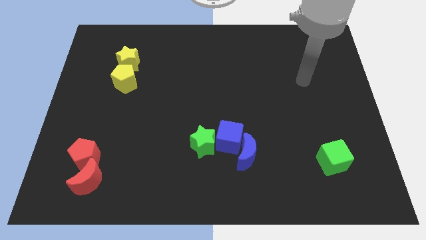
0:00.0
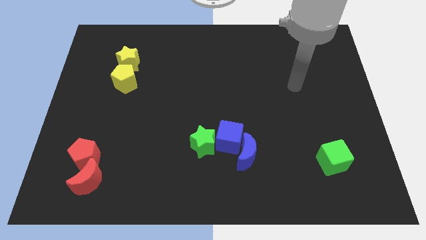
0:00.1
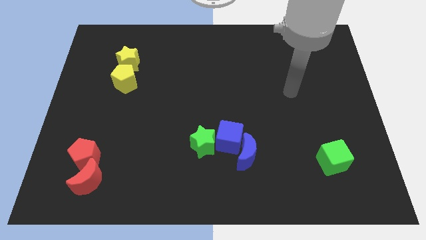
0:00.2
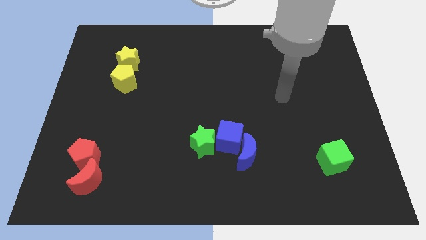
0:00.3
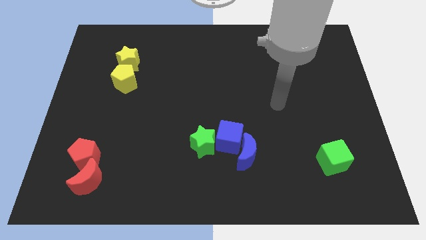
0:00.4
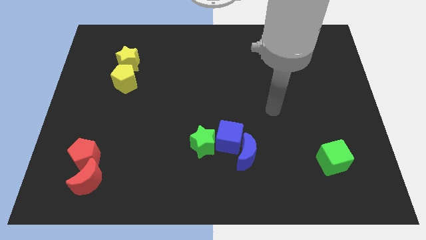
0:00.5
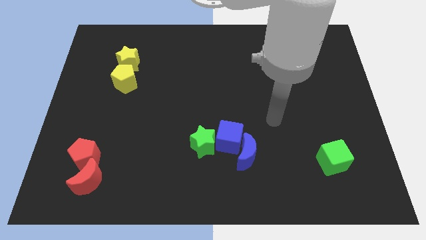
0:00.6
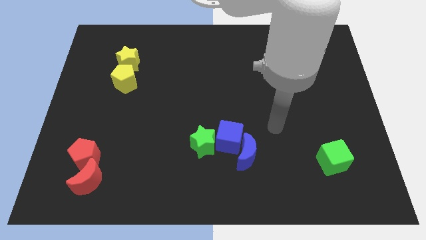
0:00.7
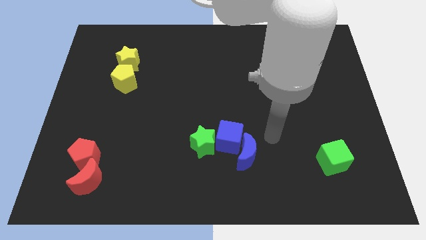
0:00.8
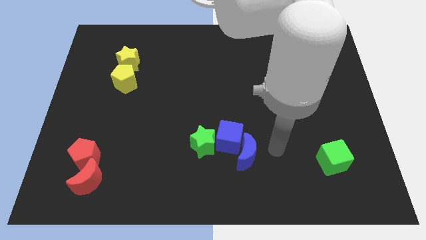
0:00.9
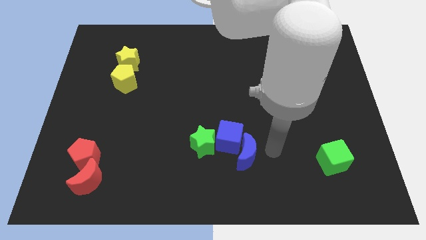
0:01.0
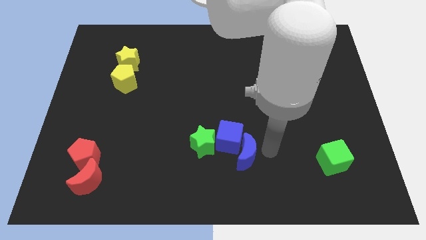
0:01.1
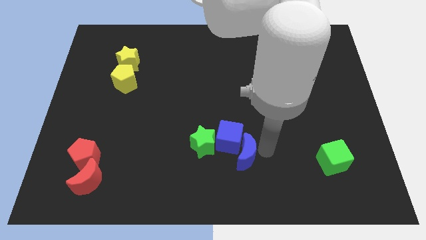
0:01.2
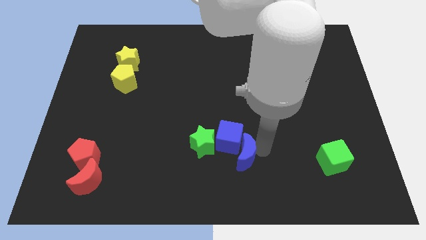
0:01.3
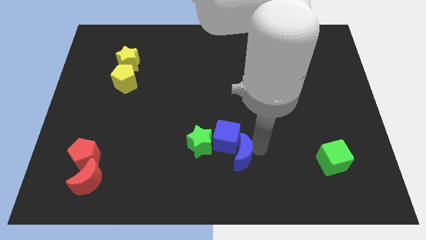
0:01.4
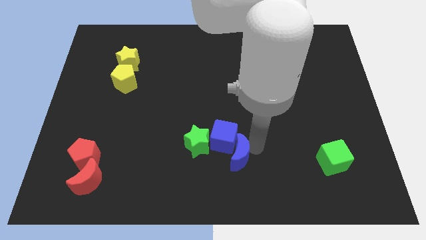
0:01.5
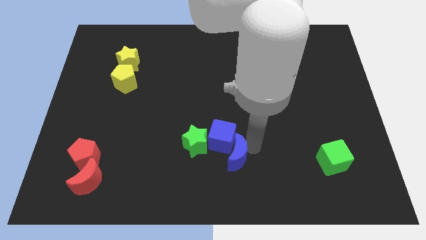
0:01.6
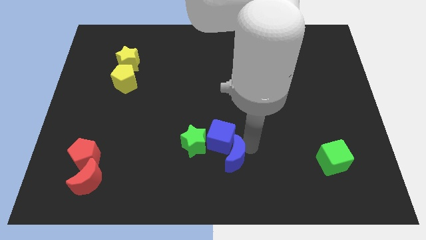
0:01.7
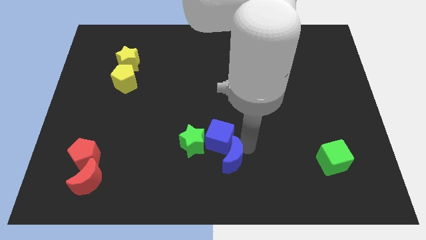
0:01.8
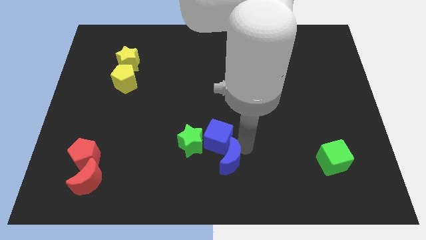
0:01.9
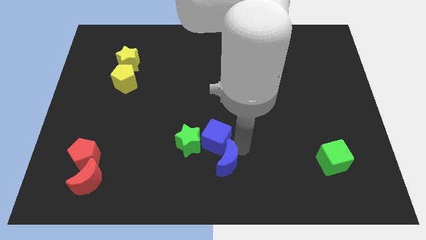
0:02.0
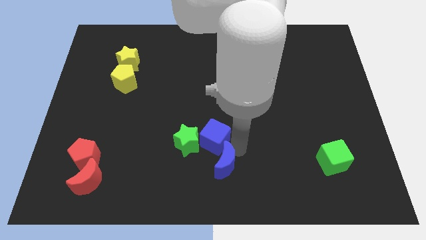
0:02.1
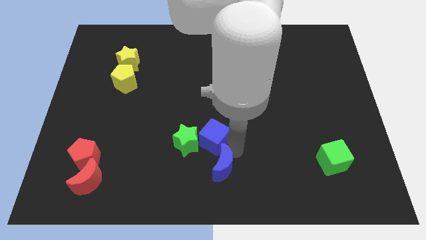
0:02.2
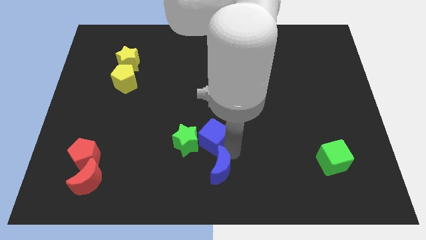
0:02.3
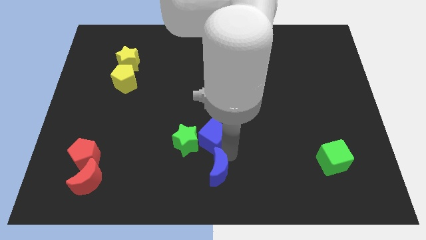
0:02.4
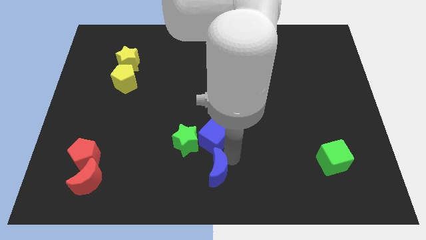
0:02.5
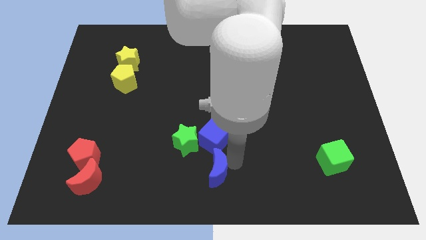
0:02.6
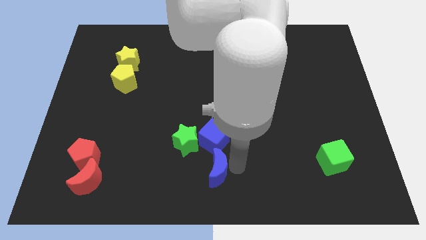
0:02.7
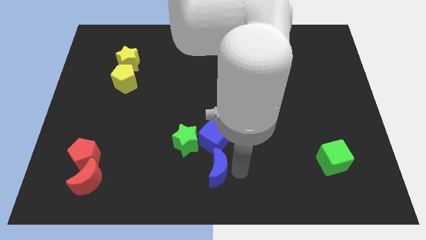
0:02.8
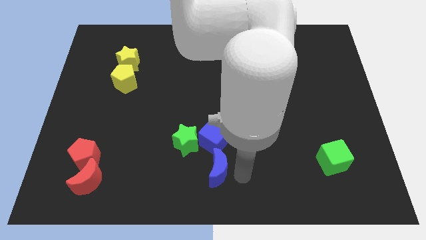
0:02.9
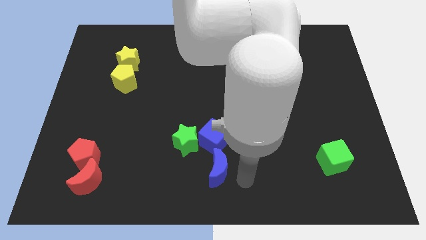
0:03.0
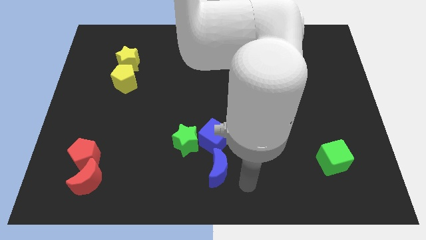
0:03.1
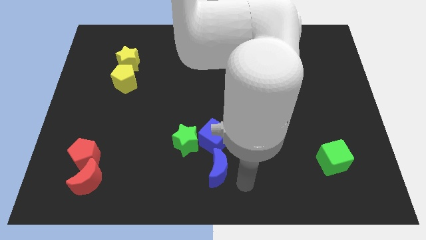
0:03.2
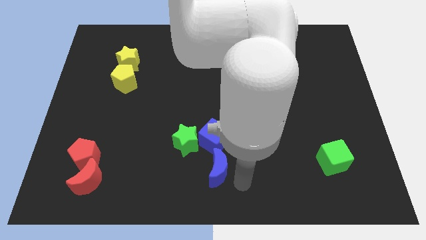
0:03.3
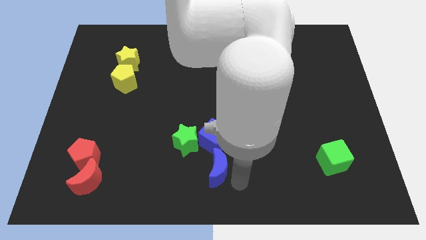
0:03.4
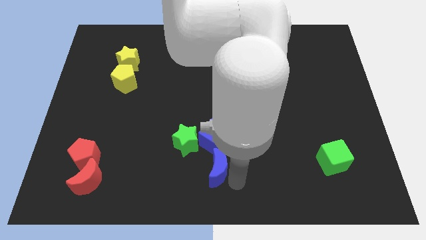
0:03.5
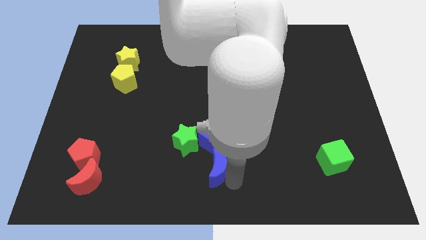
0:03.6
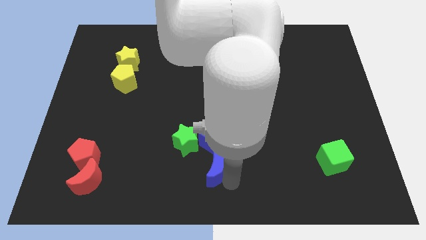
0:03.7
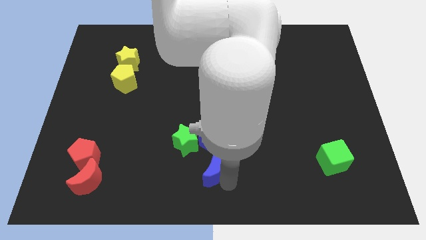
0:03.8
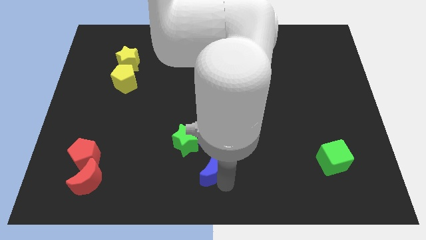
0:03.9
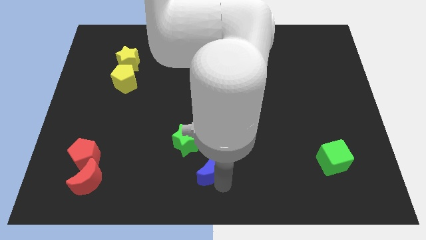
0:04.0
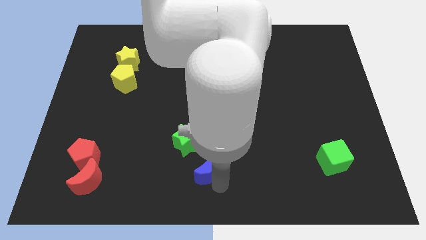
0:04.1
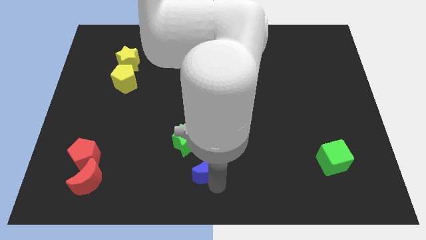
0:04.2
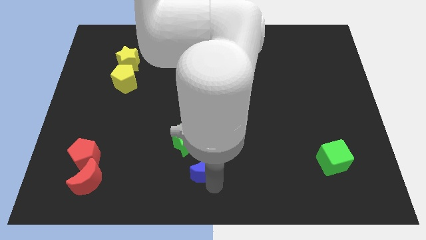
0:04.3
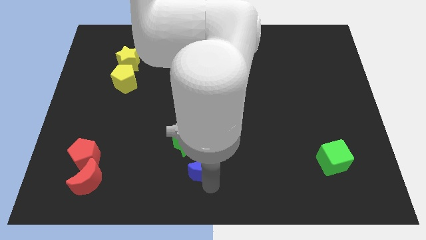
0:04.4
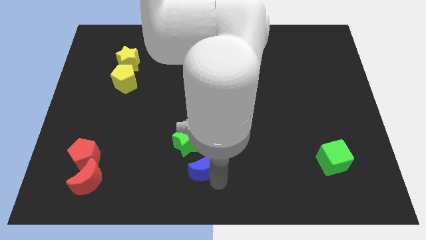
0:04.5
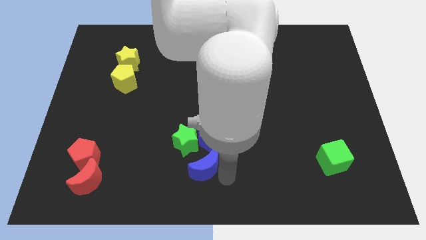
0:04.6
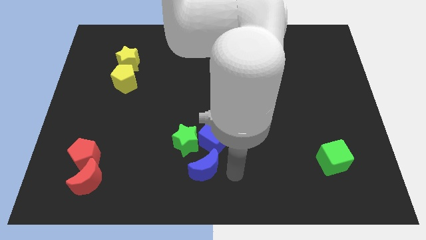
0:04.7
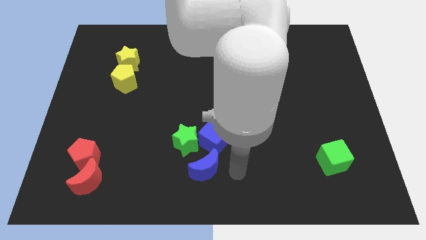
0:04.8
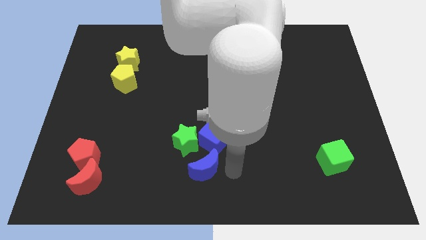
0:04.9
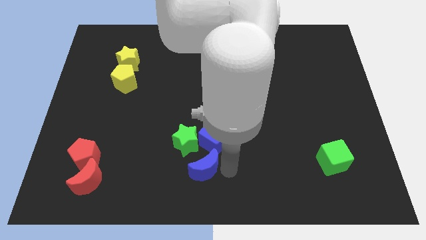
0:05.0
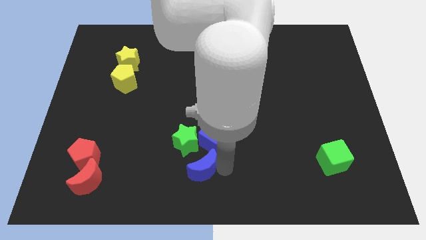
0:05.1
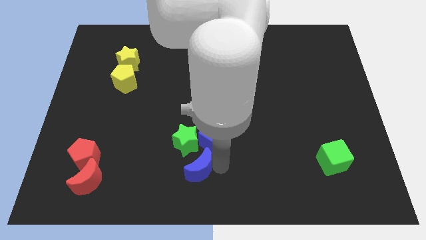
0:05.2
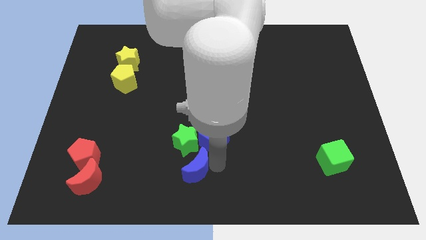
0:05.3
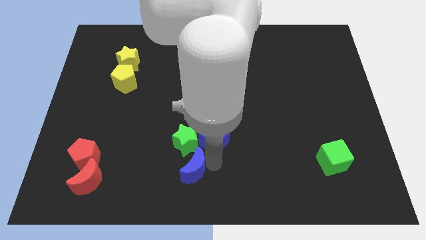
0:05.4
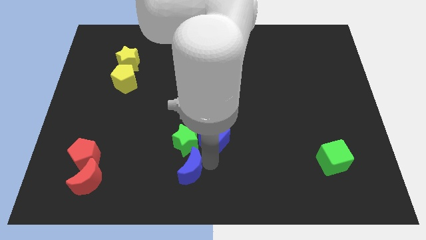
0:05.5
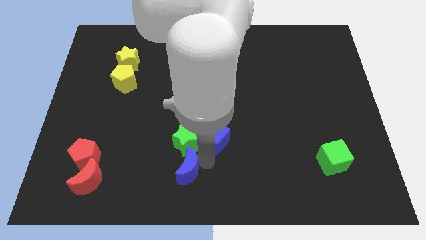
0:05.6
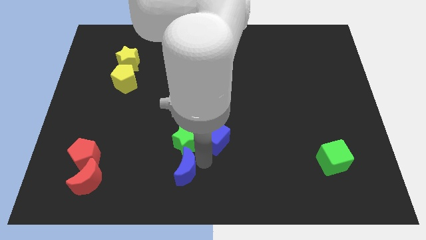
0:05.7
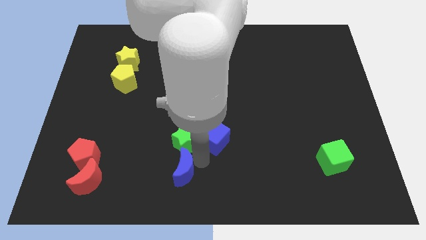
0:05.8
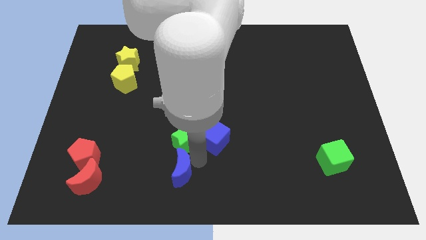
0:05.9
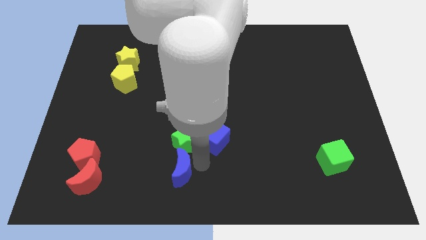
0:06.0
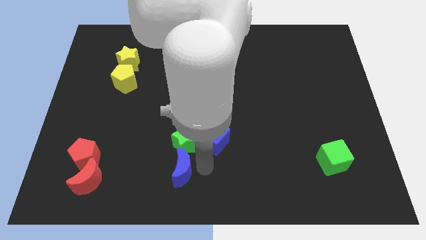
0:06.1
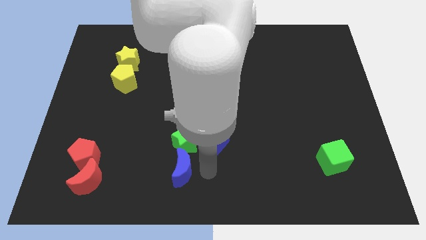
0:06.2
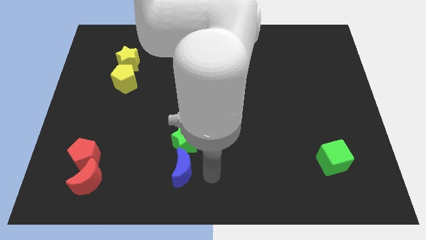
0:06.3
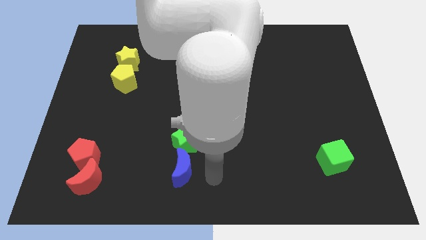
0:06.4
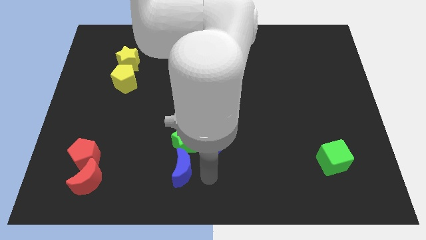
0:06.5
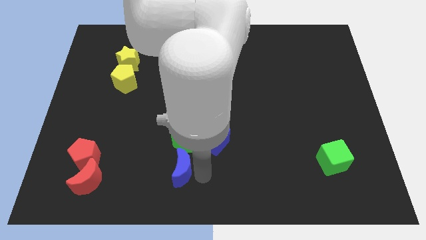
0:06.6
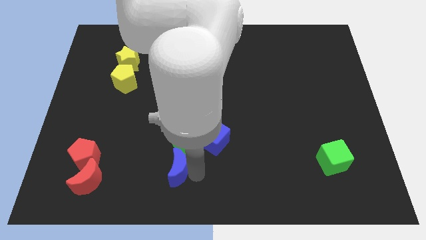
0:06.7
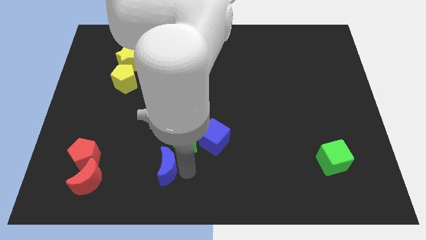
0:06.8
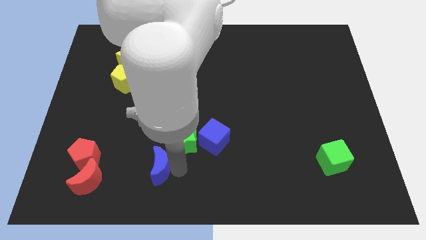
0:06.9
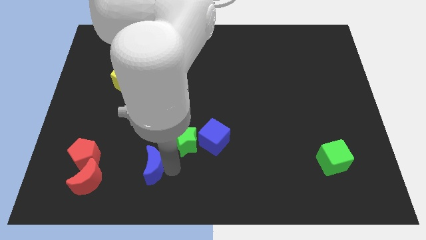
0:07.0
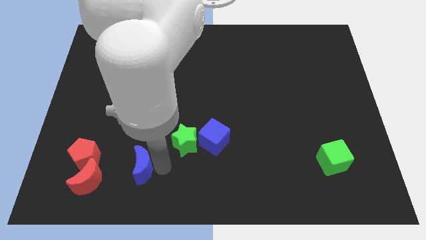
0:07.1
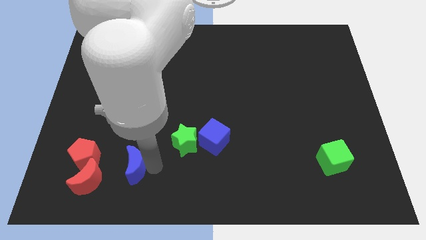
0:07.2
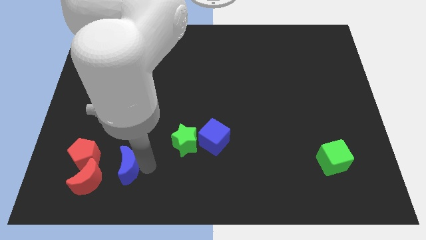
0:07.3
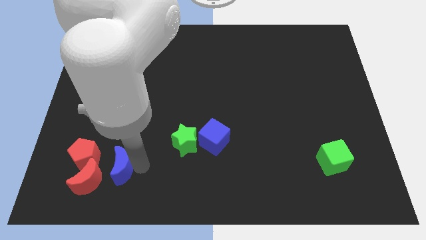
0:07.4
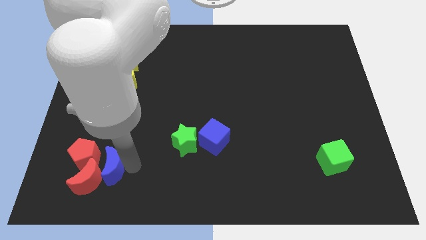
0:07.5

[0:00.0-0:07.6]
slide the blue moon to the red moon
